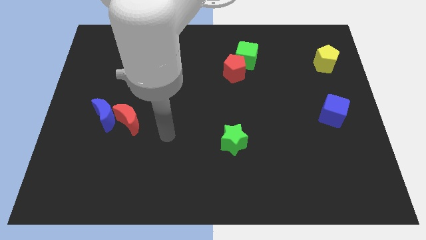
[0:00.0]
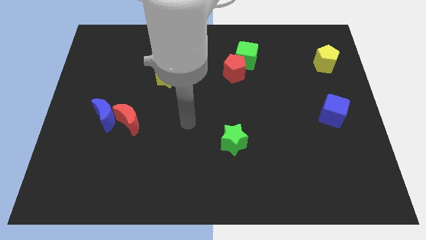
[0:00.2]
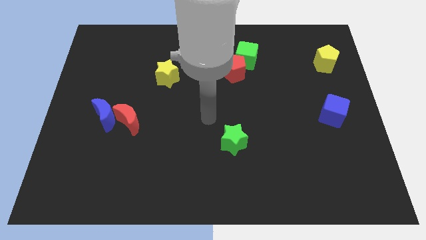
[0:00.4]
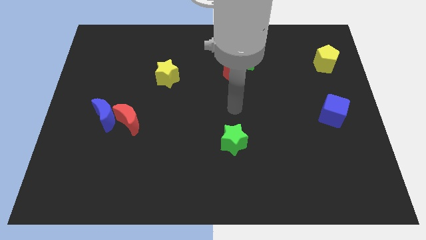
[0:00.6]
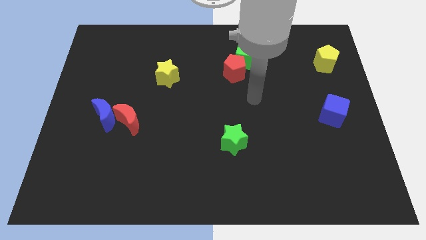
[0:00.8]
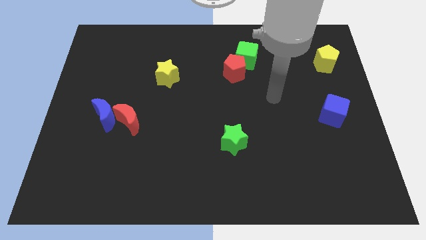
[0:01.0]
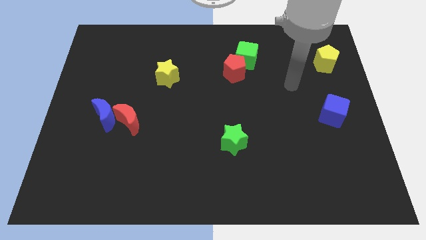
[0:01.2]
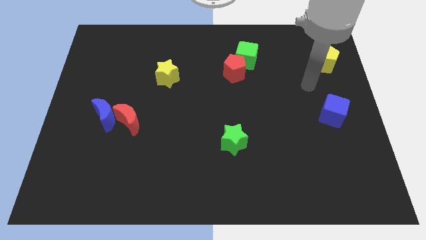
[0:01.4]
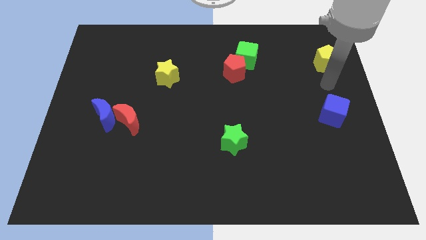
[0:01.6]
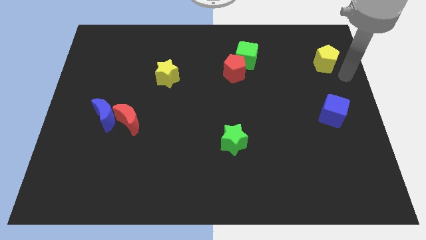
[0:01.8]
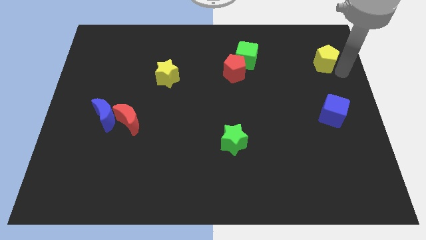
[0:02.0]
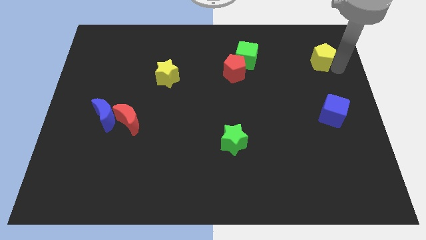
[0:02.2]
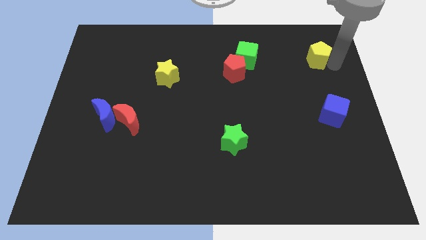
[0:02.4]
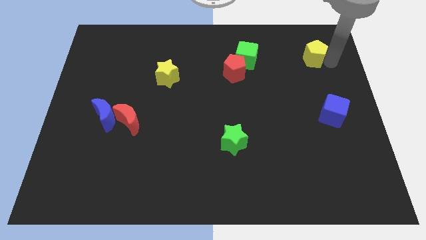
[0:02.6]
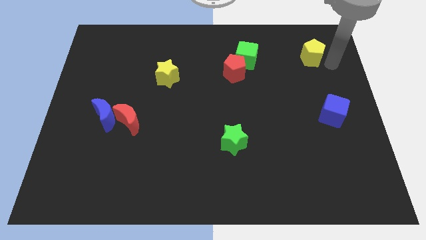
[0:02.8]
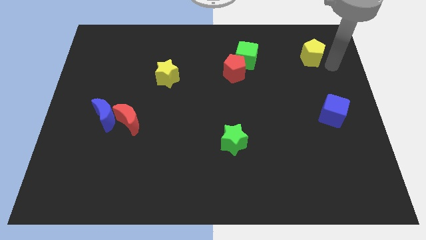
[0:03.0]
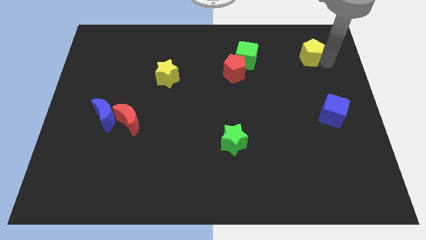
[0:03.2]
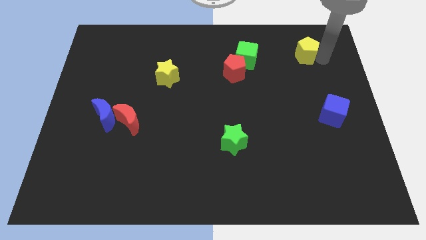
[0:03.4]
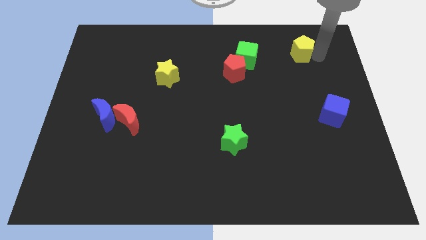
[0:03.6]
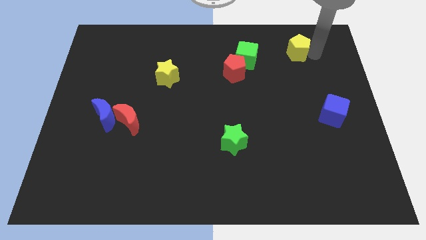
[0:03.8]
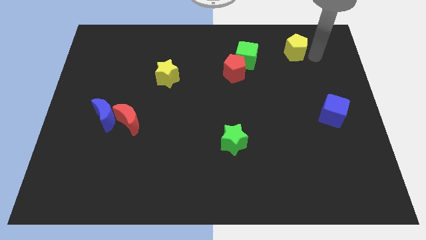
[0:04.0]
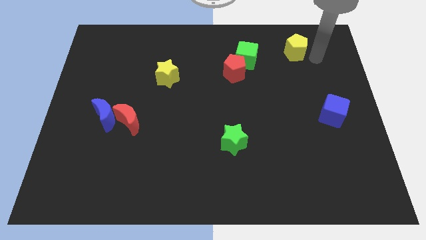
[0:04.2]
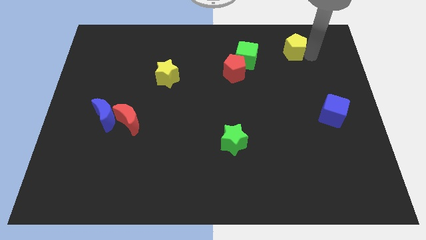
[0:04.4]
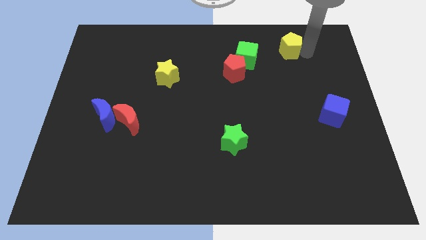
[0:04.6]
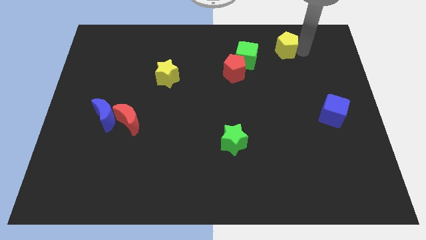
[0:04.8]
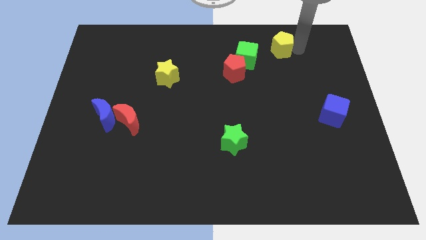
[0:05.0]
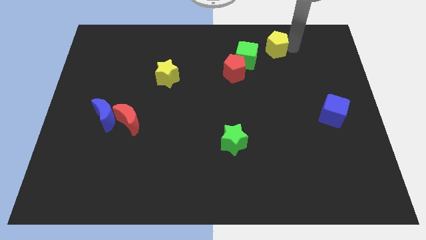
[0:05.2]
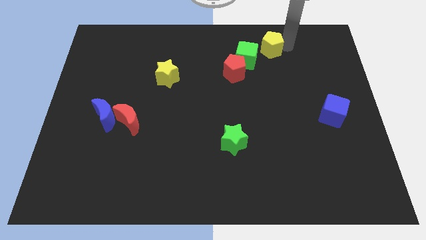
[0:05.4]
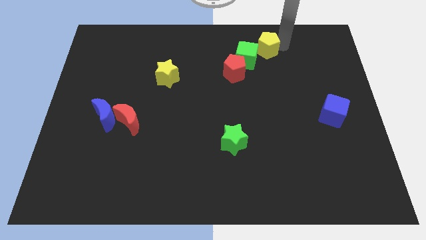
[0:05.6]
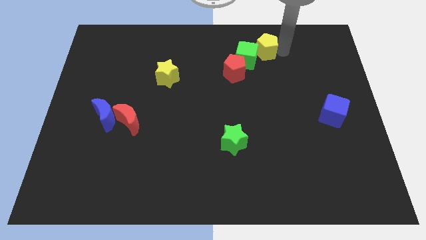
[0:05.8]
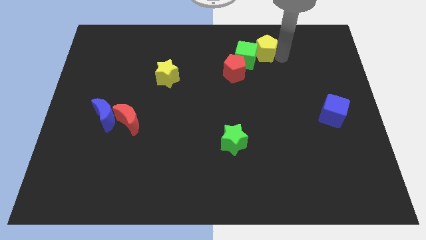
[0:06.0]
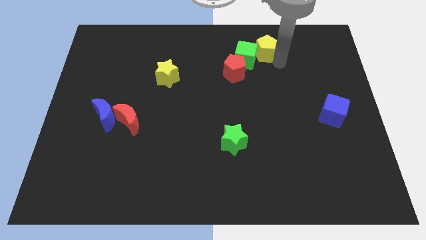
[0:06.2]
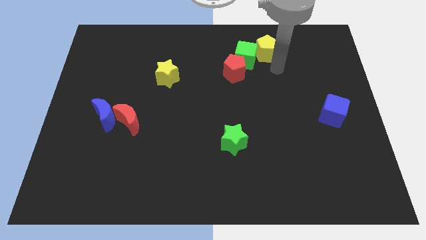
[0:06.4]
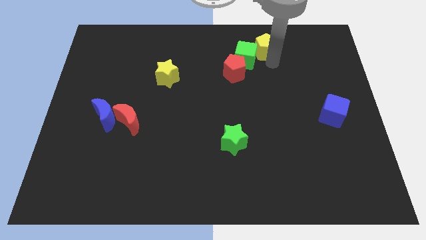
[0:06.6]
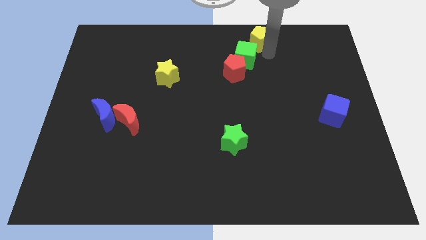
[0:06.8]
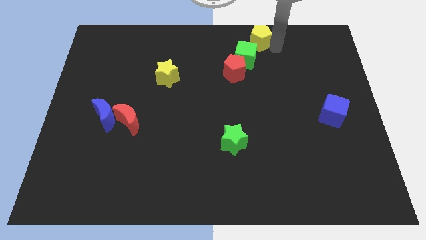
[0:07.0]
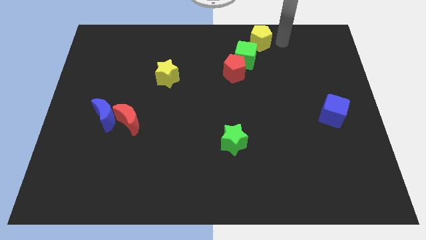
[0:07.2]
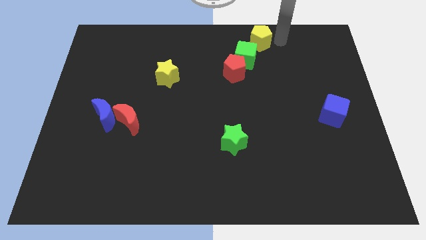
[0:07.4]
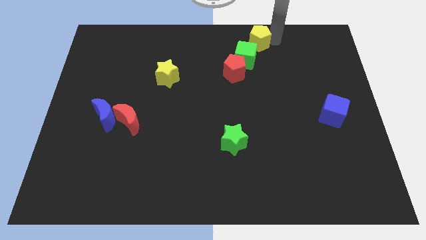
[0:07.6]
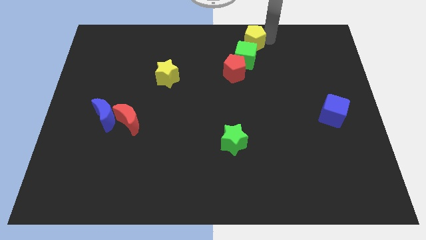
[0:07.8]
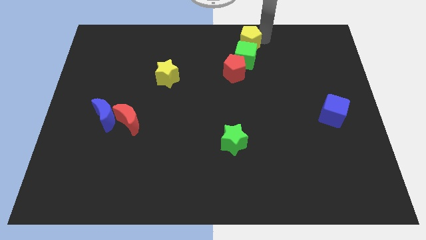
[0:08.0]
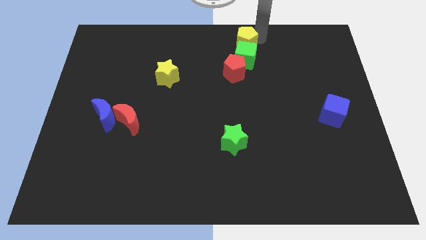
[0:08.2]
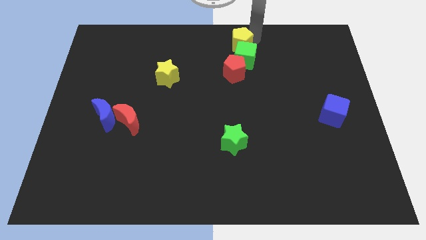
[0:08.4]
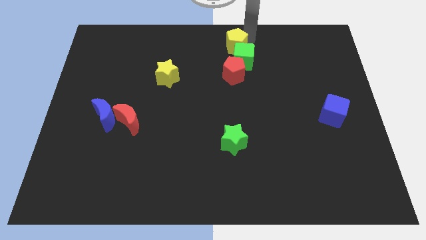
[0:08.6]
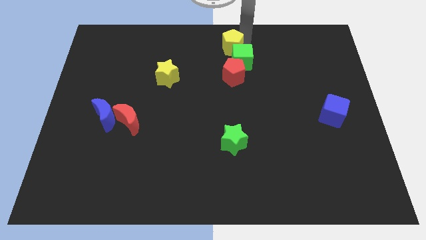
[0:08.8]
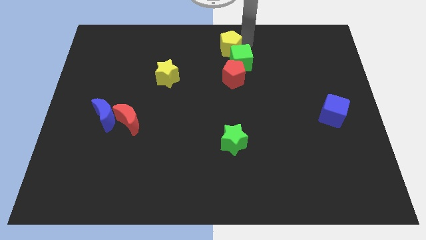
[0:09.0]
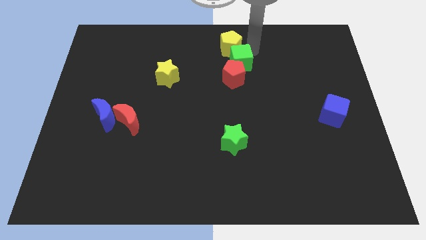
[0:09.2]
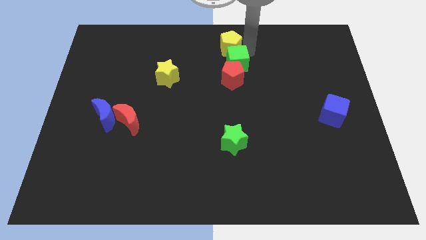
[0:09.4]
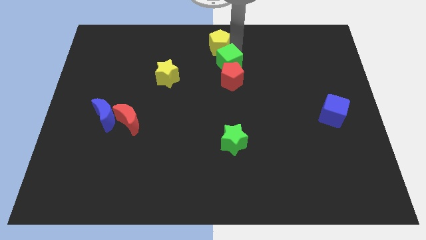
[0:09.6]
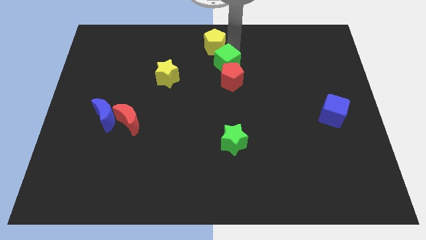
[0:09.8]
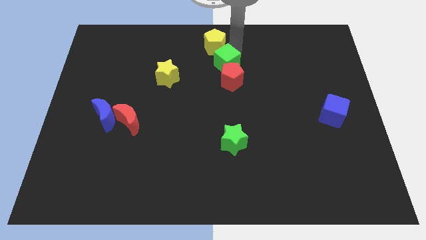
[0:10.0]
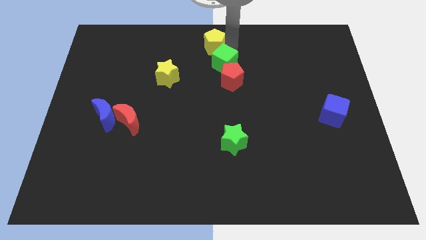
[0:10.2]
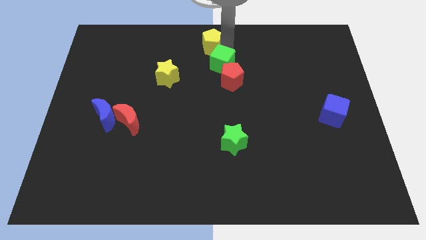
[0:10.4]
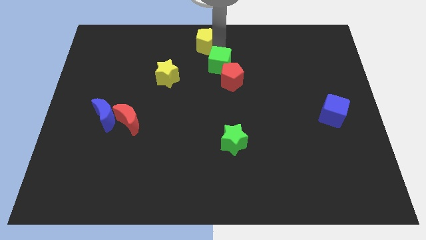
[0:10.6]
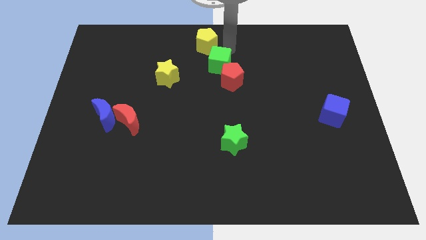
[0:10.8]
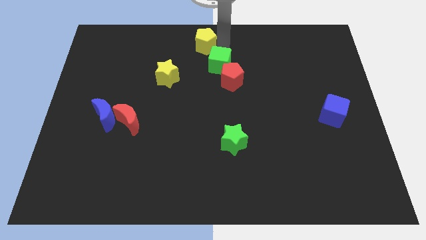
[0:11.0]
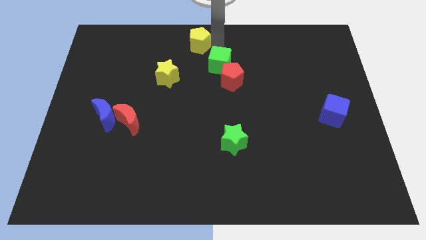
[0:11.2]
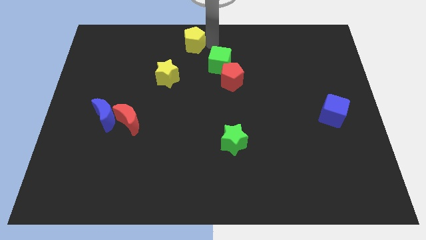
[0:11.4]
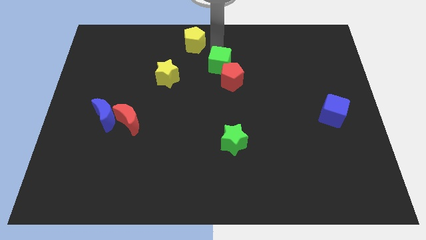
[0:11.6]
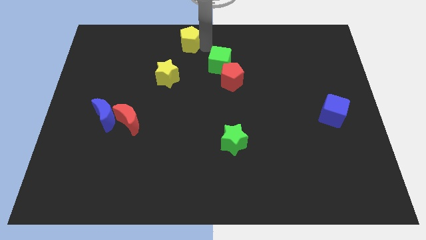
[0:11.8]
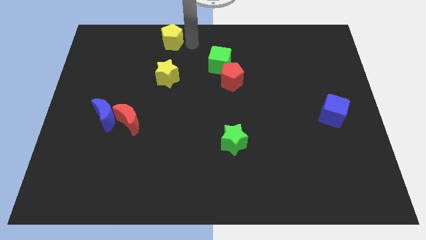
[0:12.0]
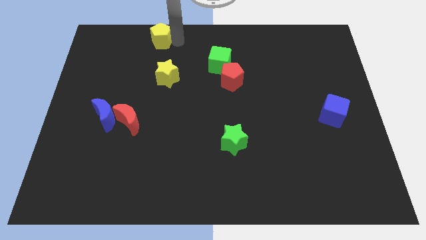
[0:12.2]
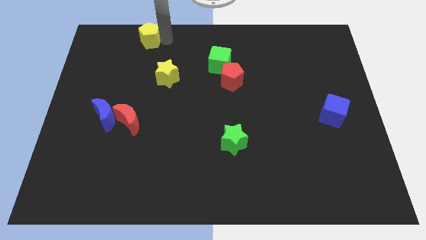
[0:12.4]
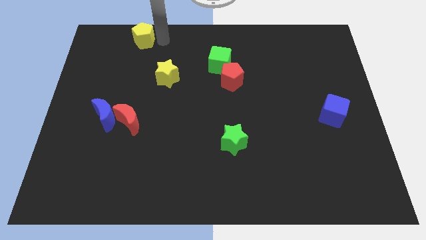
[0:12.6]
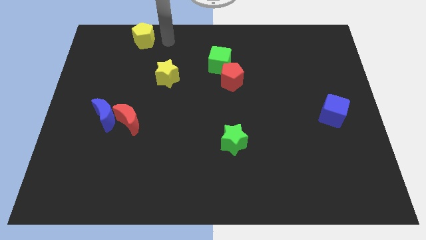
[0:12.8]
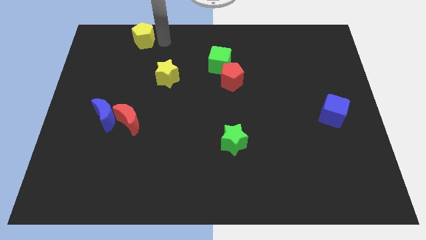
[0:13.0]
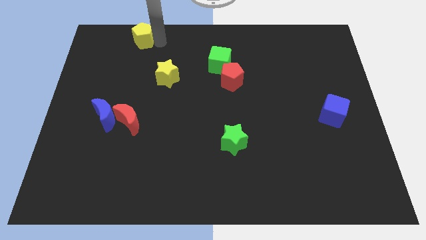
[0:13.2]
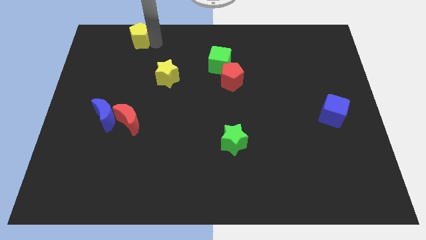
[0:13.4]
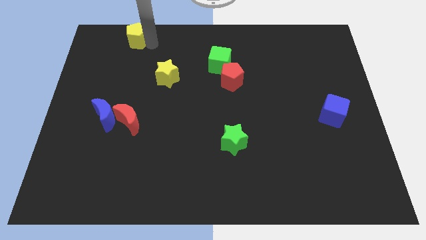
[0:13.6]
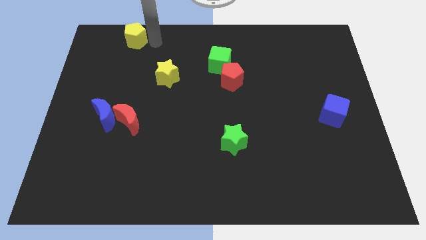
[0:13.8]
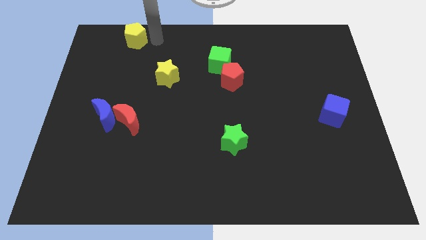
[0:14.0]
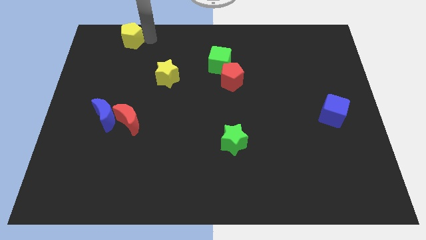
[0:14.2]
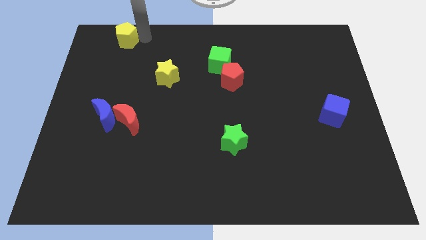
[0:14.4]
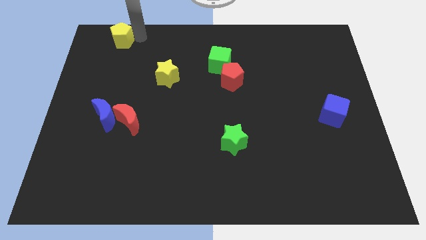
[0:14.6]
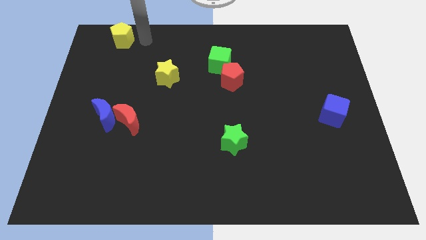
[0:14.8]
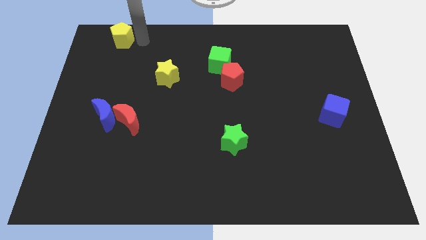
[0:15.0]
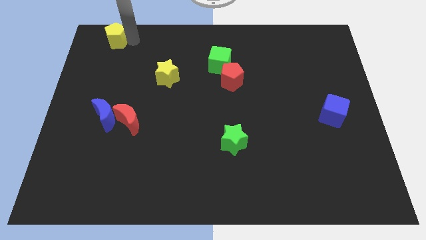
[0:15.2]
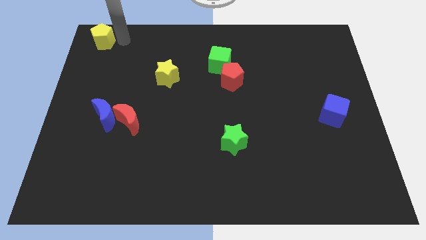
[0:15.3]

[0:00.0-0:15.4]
slide the yellow pentagon to the top left
